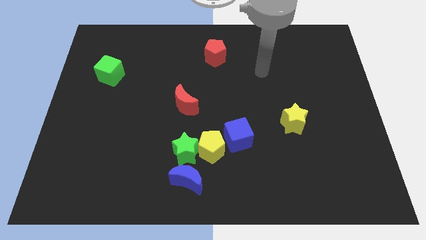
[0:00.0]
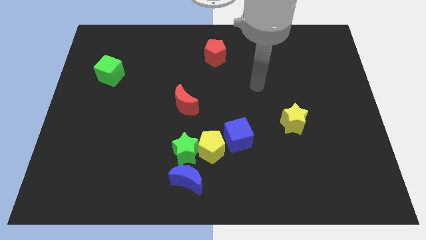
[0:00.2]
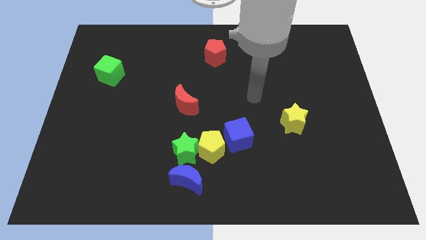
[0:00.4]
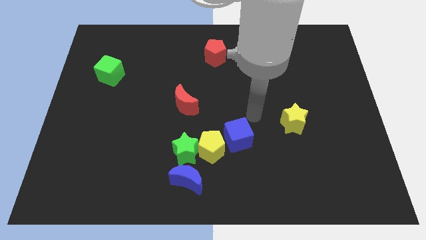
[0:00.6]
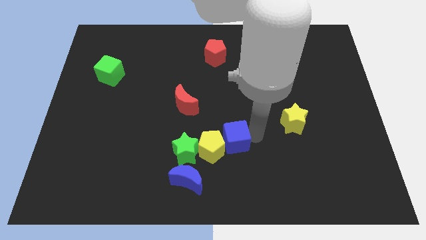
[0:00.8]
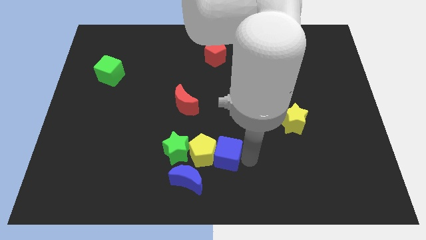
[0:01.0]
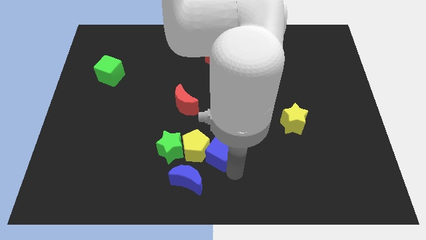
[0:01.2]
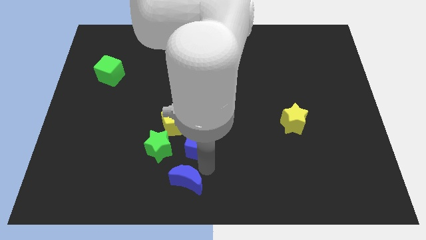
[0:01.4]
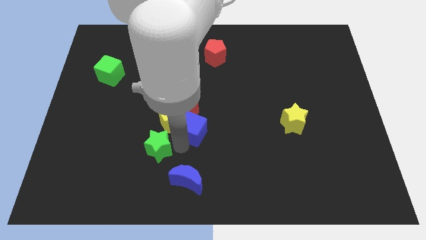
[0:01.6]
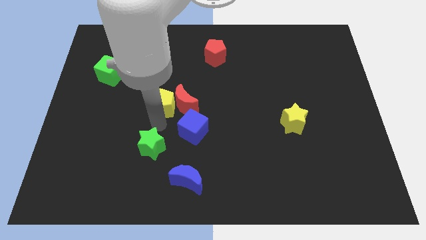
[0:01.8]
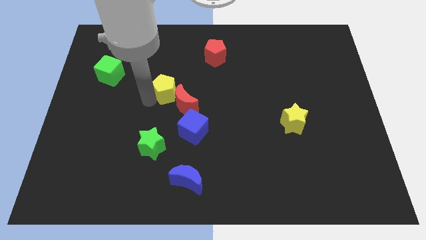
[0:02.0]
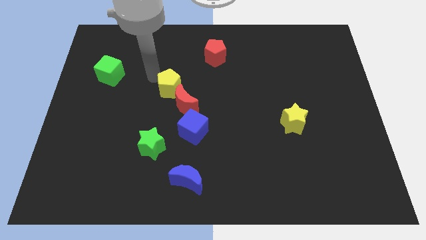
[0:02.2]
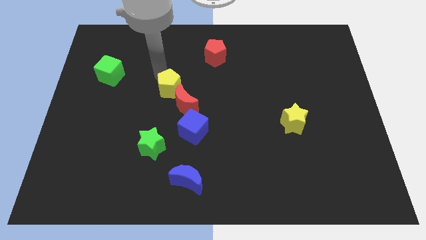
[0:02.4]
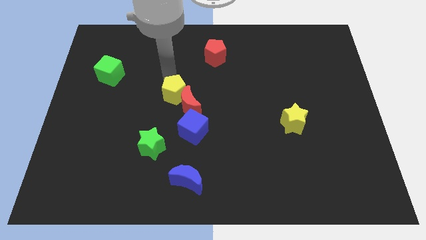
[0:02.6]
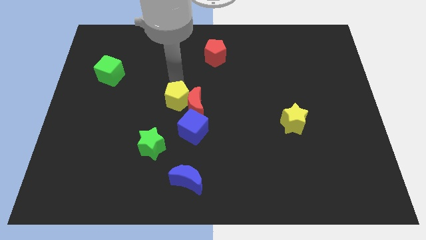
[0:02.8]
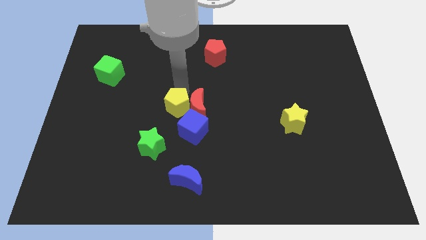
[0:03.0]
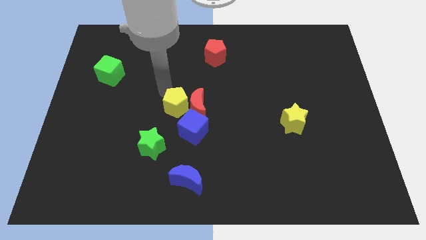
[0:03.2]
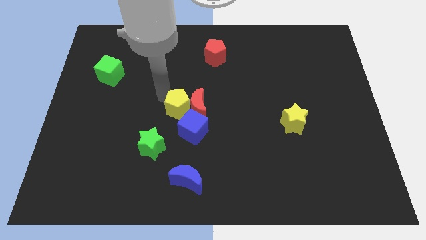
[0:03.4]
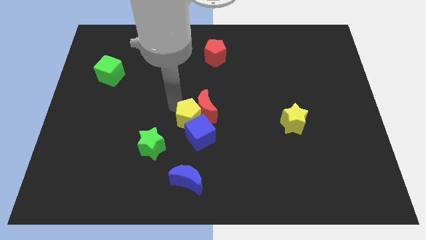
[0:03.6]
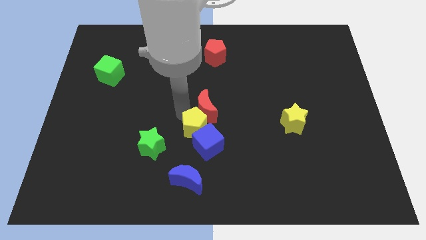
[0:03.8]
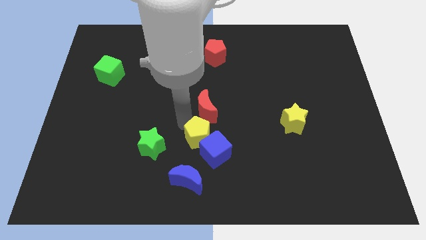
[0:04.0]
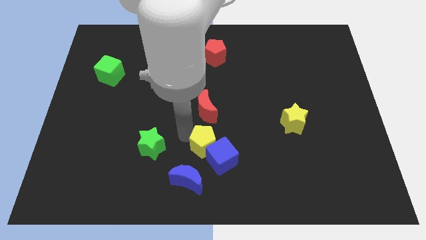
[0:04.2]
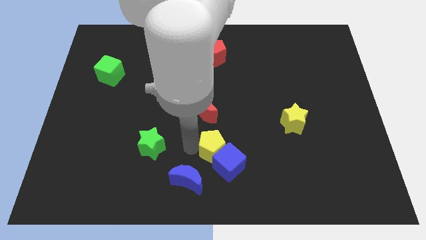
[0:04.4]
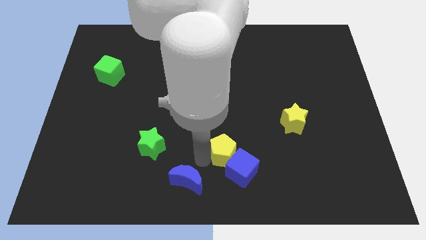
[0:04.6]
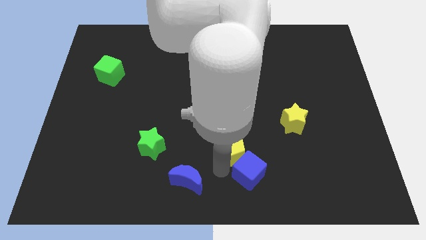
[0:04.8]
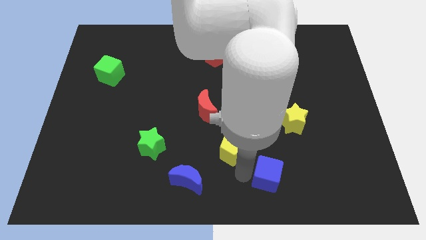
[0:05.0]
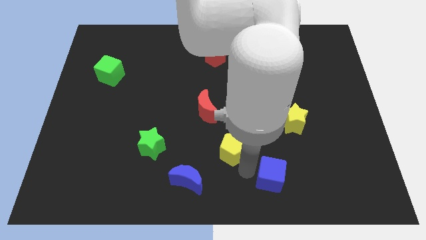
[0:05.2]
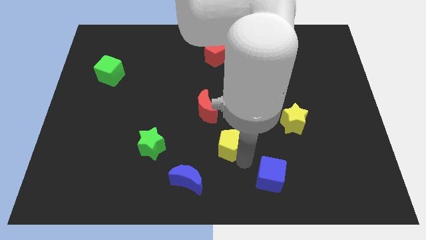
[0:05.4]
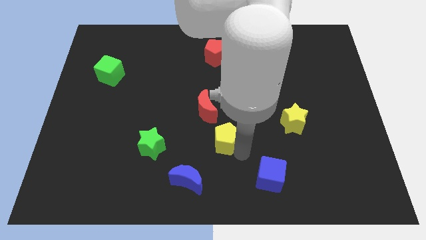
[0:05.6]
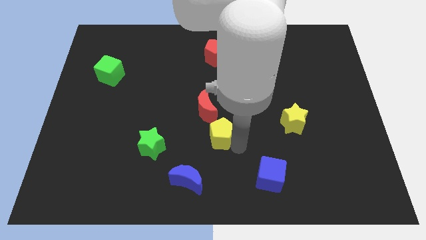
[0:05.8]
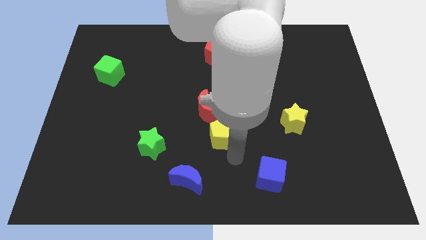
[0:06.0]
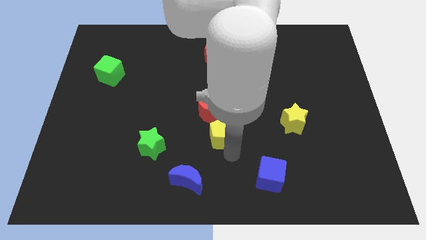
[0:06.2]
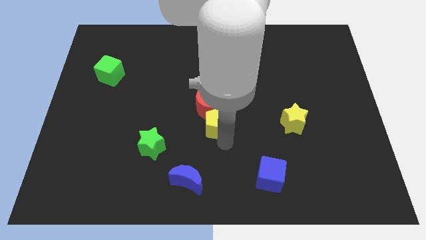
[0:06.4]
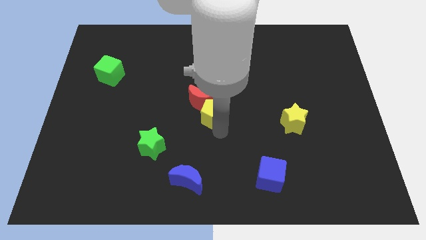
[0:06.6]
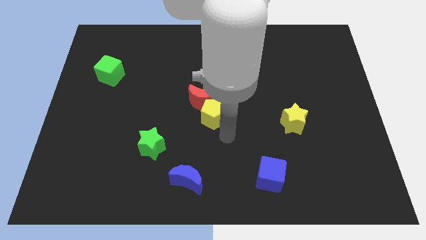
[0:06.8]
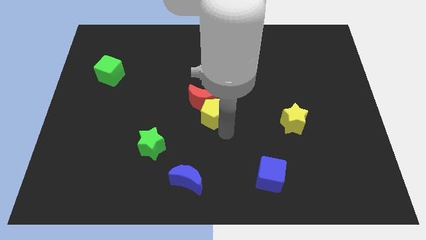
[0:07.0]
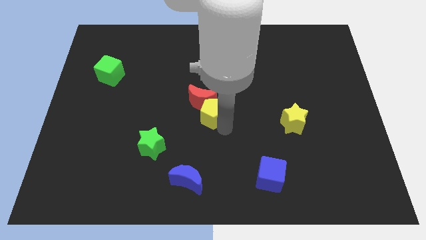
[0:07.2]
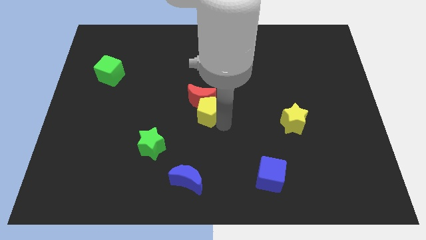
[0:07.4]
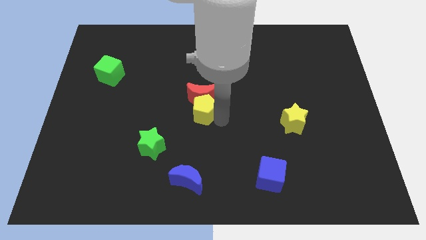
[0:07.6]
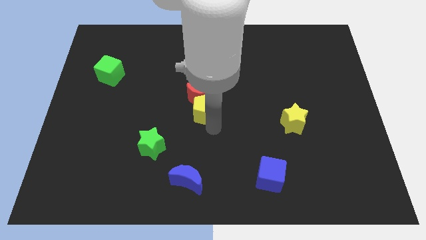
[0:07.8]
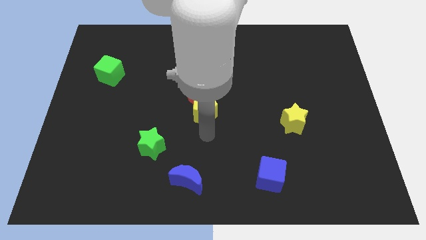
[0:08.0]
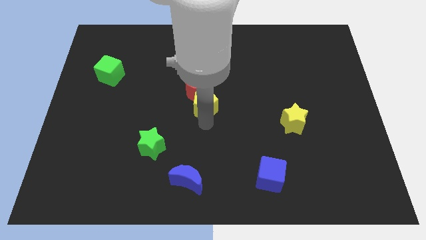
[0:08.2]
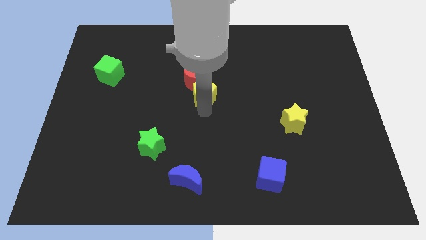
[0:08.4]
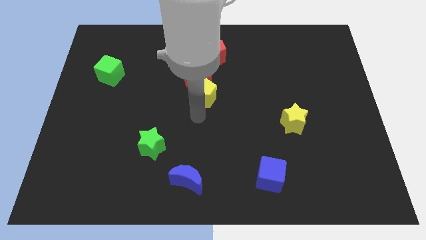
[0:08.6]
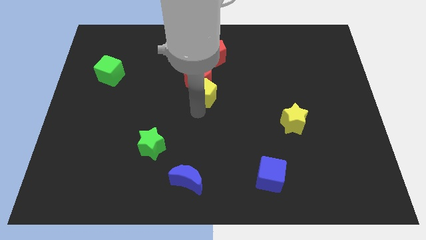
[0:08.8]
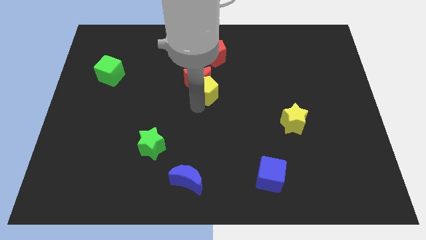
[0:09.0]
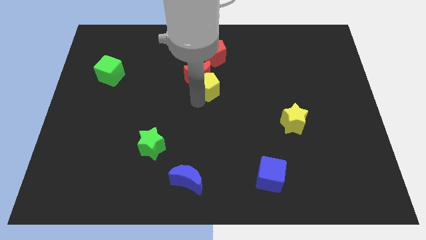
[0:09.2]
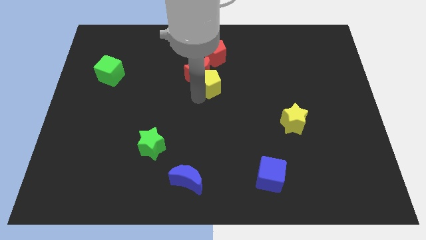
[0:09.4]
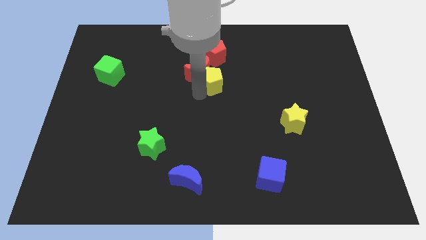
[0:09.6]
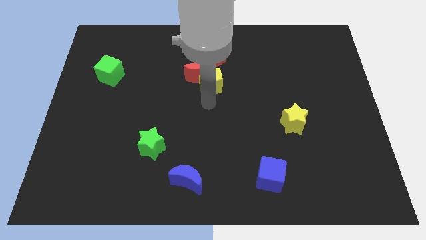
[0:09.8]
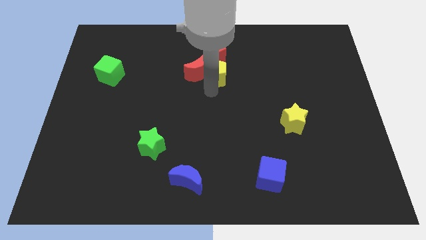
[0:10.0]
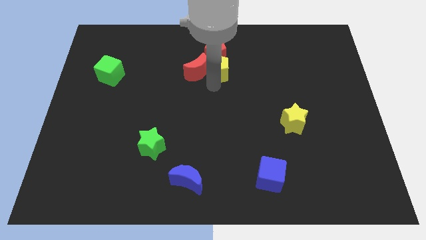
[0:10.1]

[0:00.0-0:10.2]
slide the yellow pentagon to the red pentagon

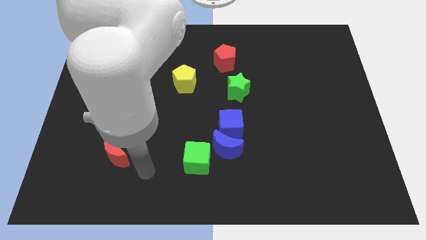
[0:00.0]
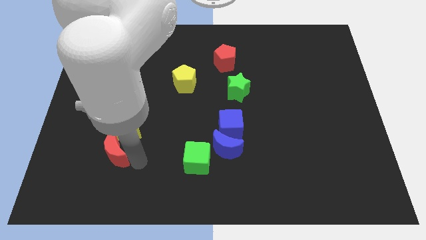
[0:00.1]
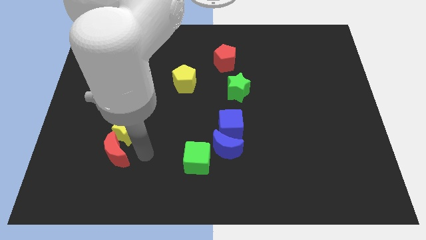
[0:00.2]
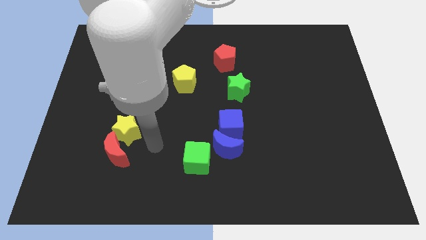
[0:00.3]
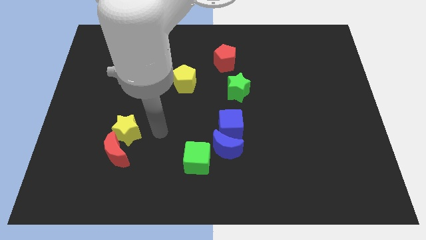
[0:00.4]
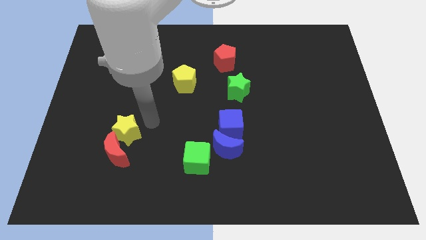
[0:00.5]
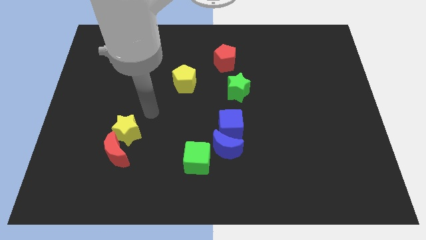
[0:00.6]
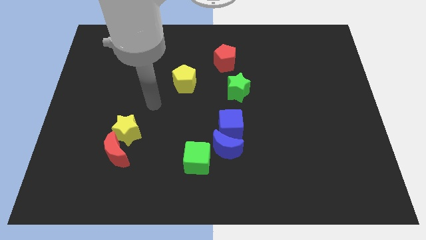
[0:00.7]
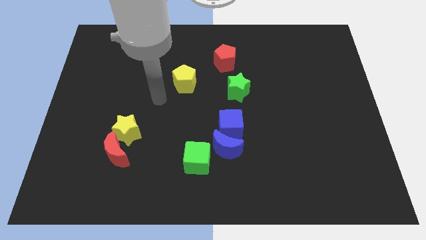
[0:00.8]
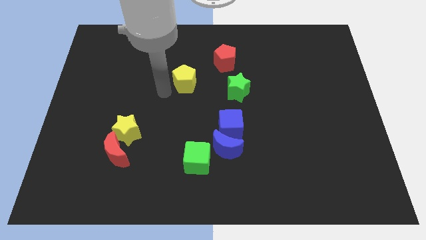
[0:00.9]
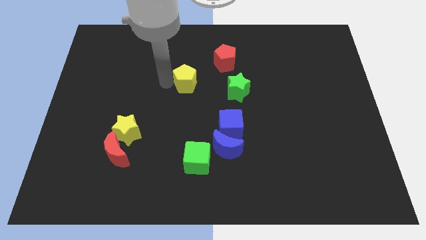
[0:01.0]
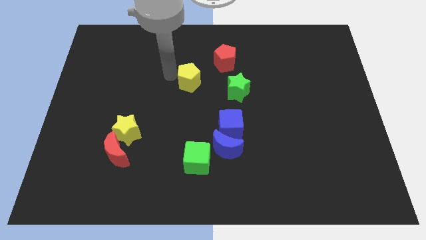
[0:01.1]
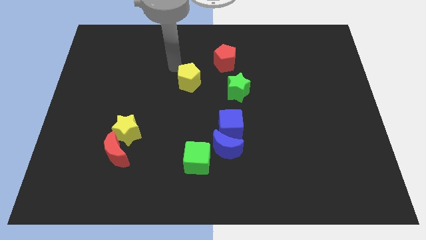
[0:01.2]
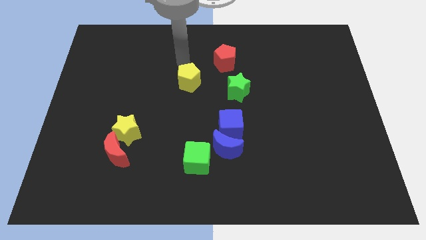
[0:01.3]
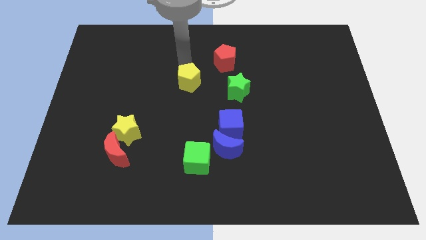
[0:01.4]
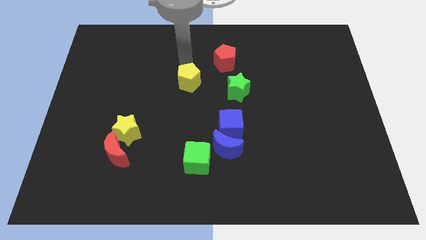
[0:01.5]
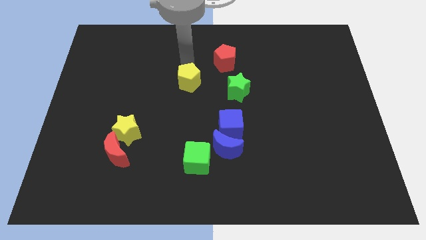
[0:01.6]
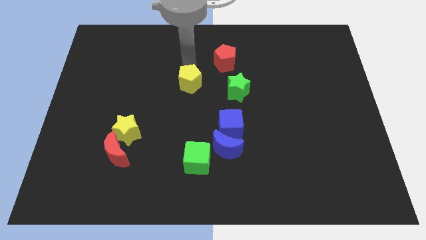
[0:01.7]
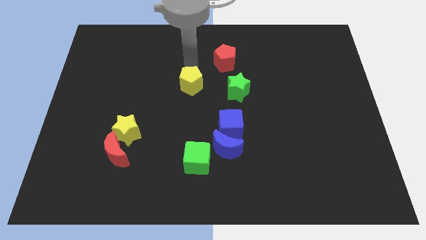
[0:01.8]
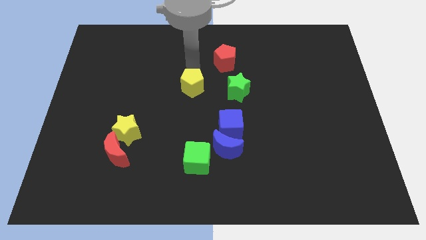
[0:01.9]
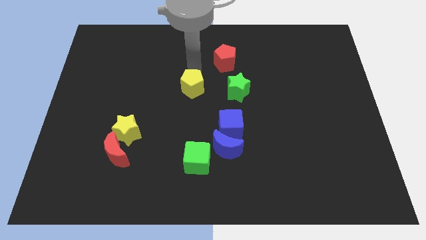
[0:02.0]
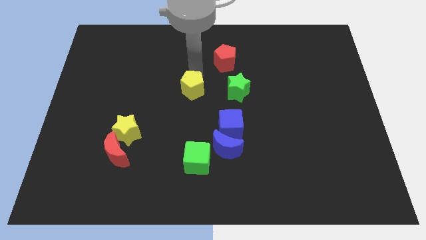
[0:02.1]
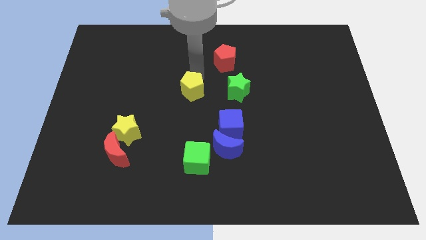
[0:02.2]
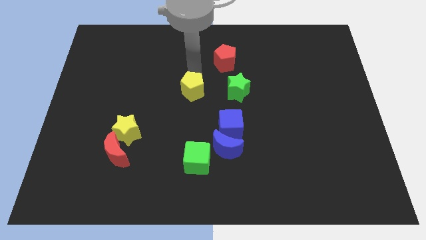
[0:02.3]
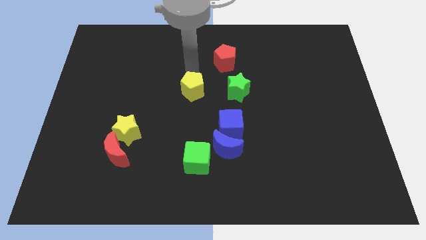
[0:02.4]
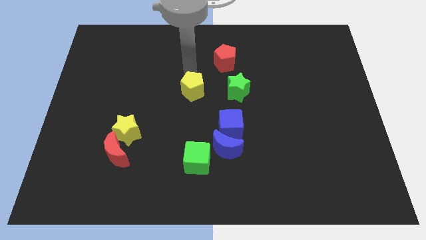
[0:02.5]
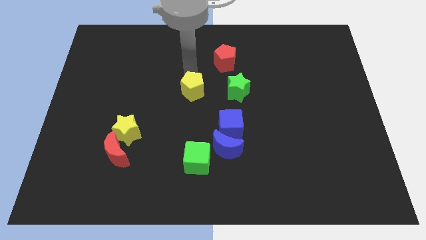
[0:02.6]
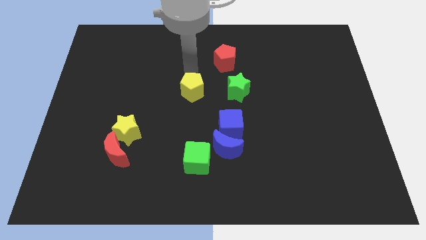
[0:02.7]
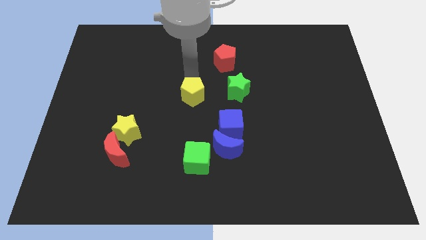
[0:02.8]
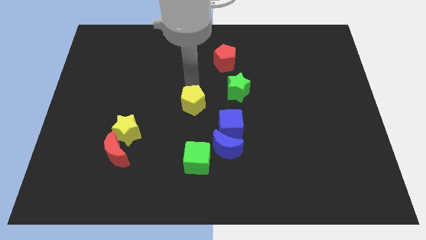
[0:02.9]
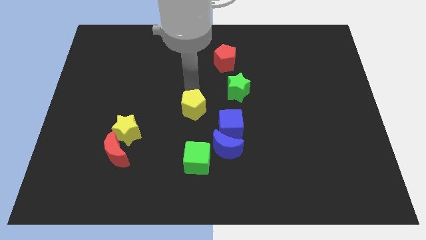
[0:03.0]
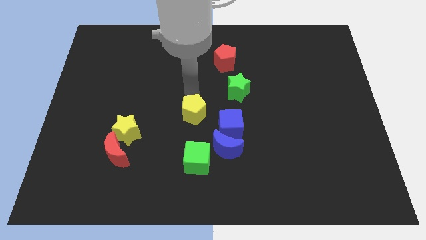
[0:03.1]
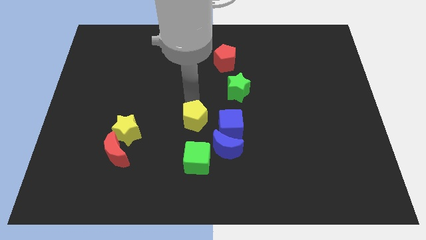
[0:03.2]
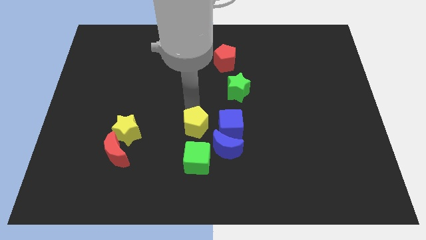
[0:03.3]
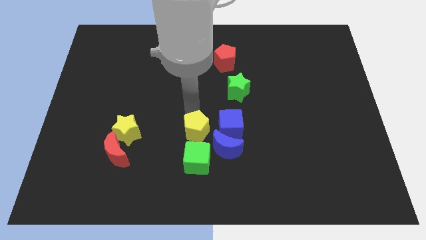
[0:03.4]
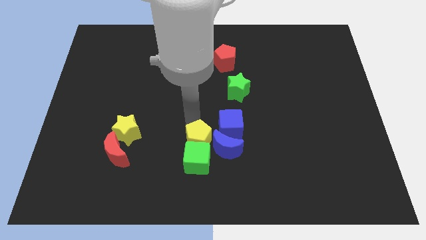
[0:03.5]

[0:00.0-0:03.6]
put the yellow pentagon to the blue moon
